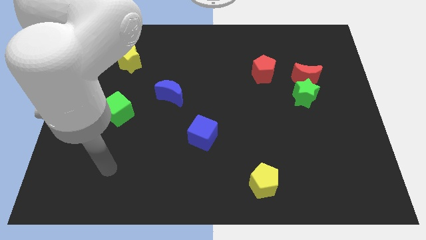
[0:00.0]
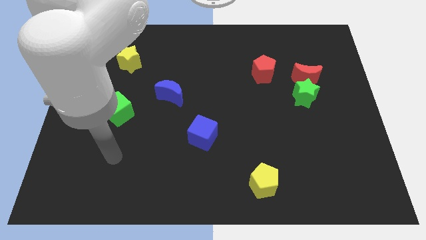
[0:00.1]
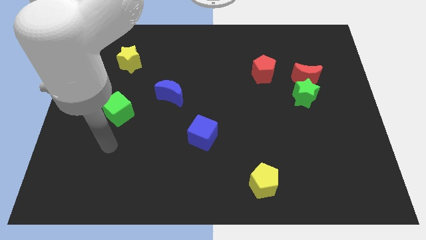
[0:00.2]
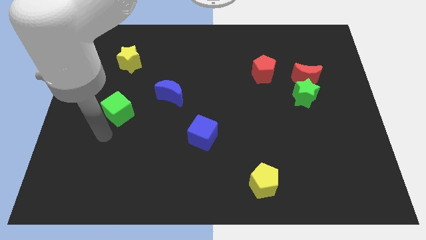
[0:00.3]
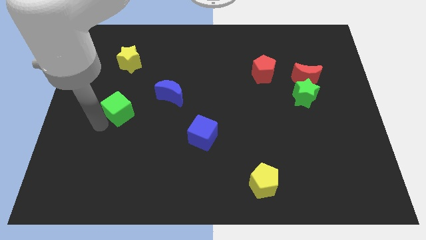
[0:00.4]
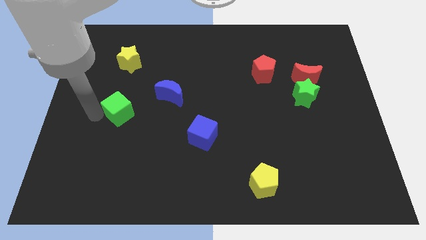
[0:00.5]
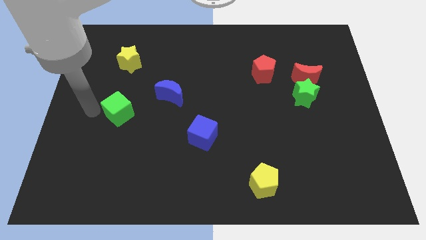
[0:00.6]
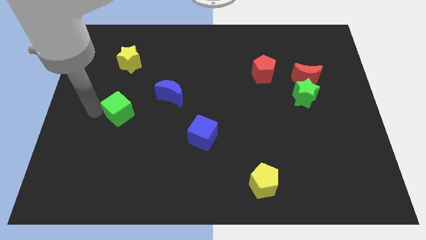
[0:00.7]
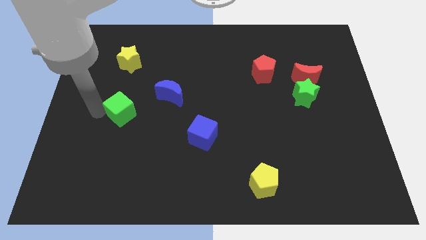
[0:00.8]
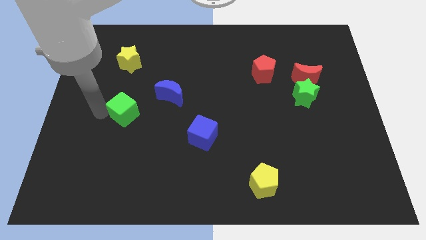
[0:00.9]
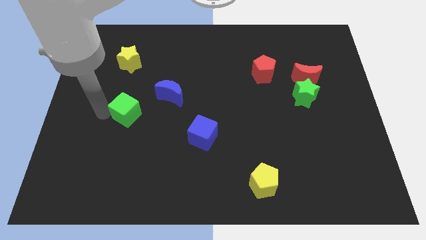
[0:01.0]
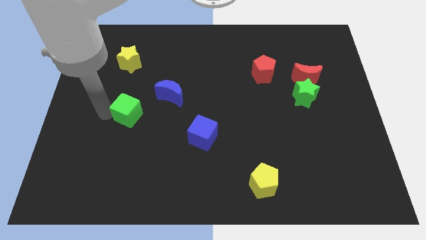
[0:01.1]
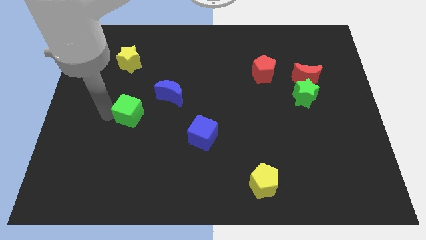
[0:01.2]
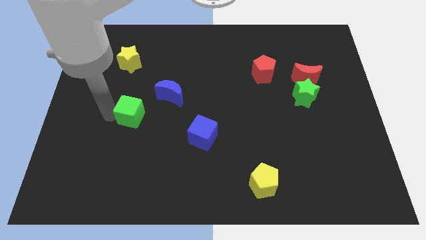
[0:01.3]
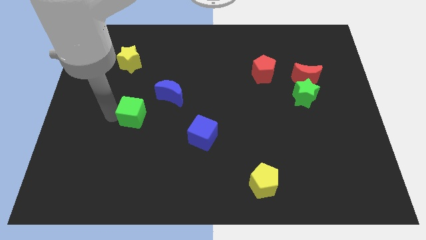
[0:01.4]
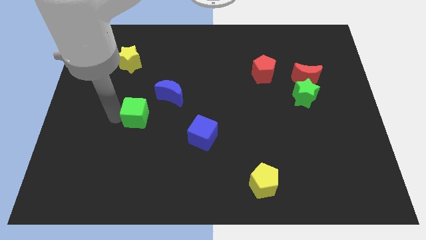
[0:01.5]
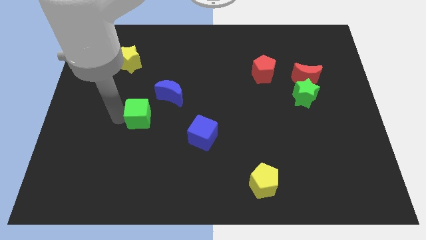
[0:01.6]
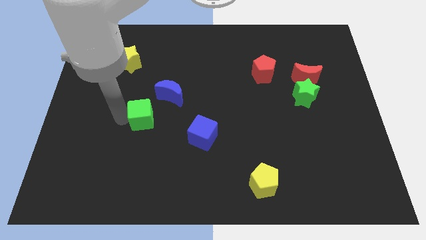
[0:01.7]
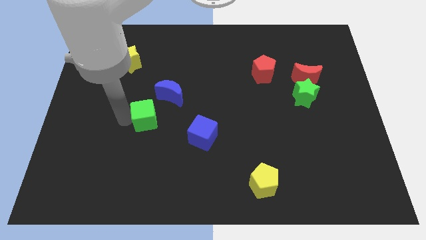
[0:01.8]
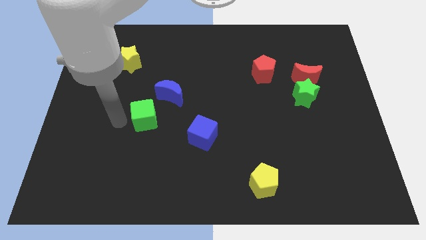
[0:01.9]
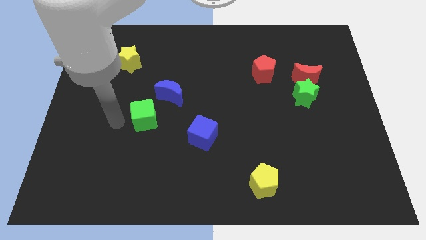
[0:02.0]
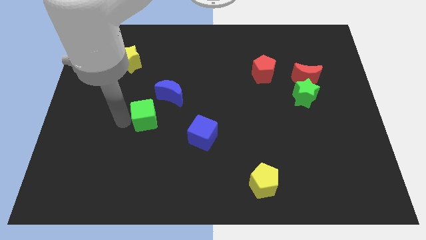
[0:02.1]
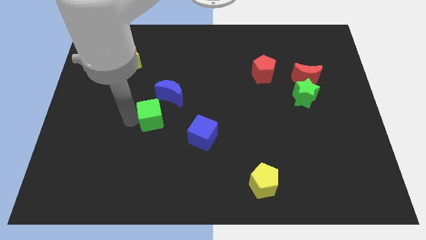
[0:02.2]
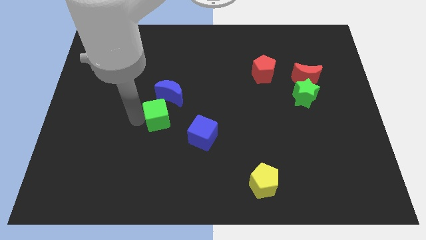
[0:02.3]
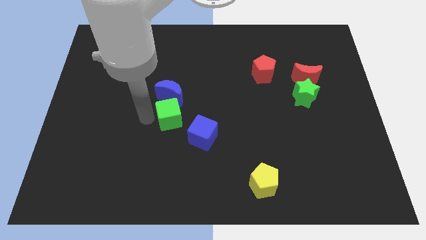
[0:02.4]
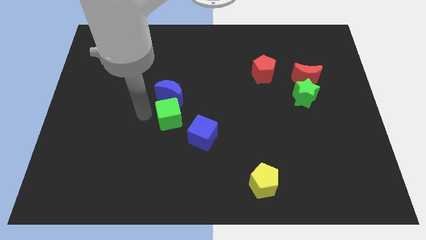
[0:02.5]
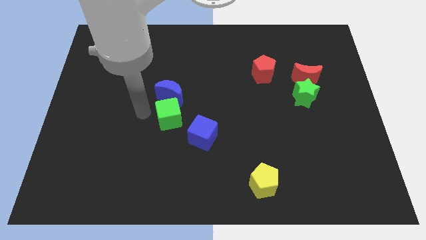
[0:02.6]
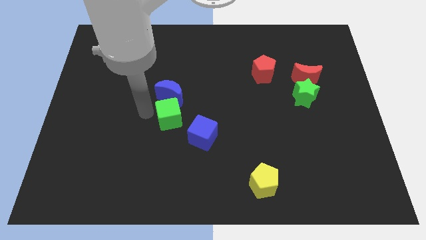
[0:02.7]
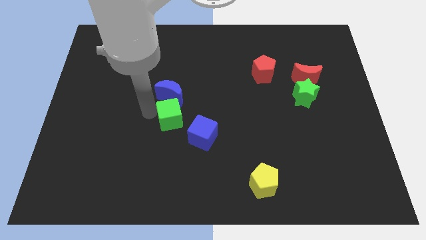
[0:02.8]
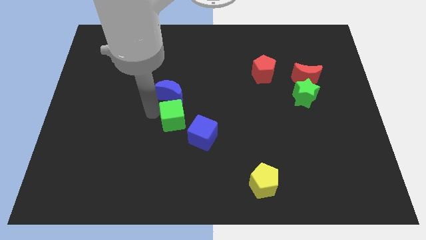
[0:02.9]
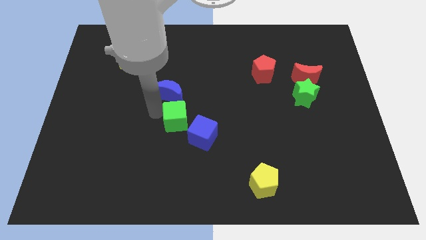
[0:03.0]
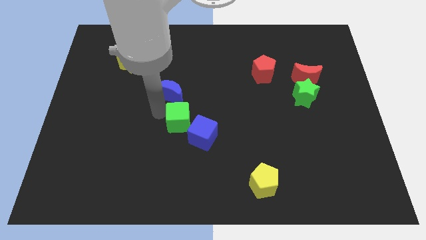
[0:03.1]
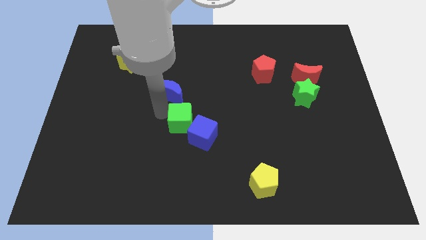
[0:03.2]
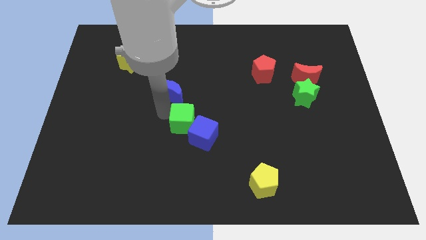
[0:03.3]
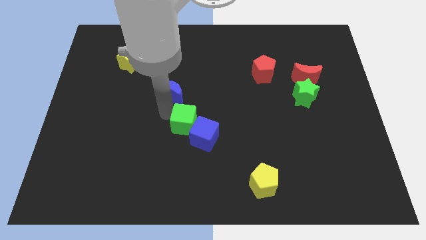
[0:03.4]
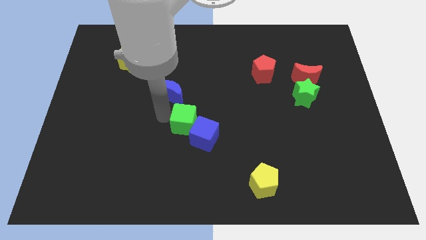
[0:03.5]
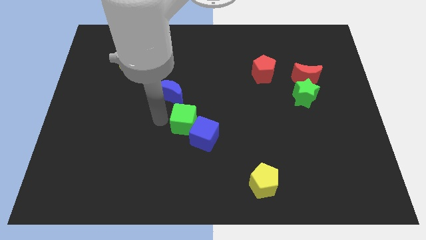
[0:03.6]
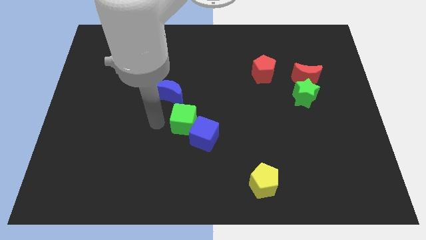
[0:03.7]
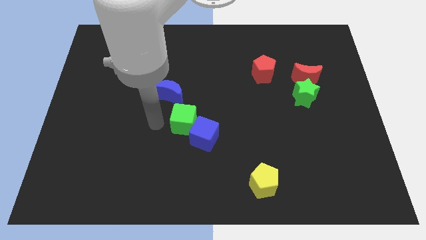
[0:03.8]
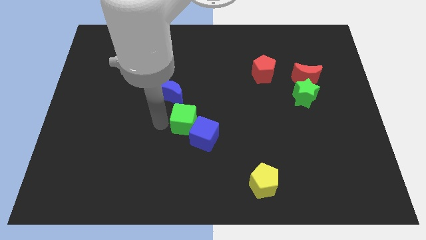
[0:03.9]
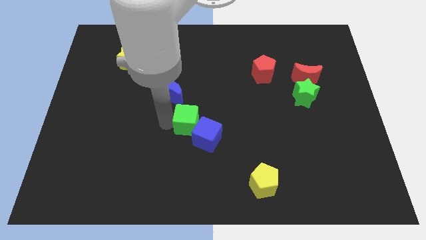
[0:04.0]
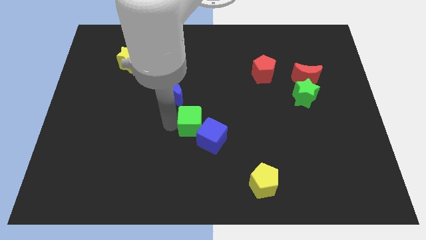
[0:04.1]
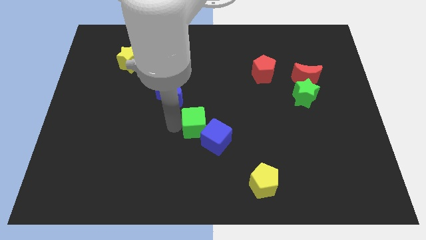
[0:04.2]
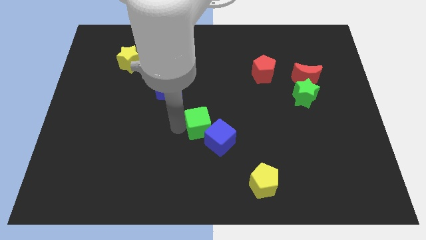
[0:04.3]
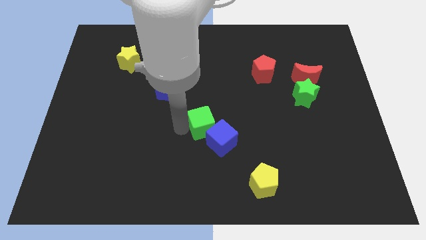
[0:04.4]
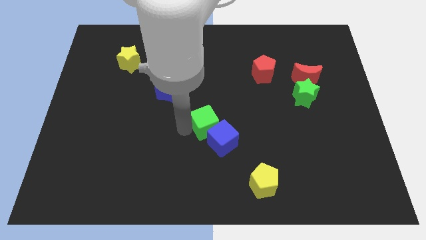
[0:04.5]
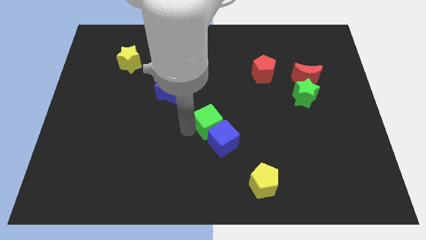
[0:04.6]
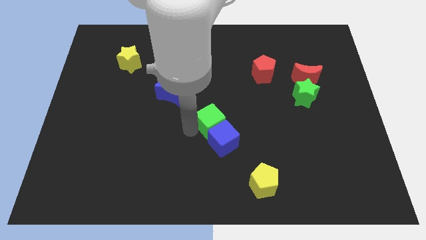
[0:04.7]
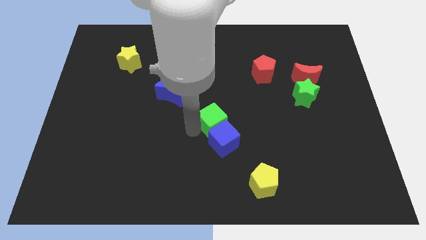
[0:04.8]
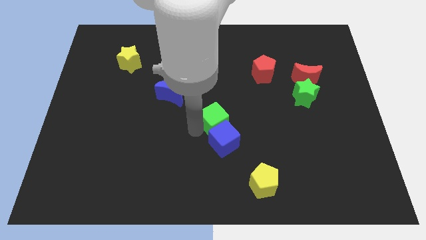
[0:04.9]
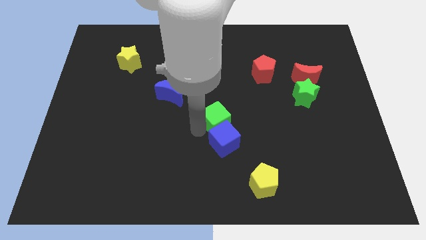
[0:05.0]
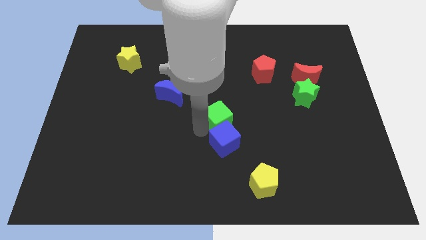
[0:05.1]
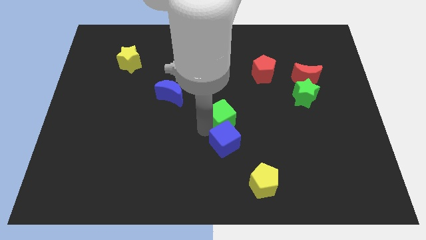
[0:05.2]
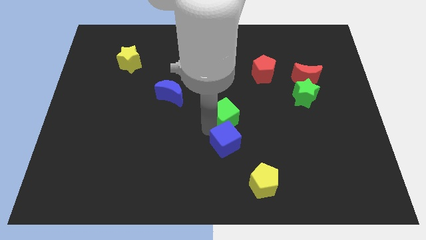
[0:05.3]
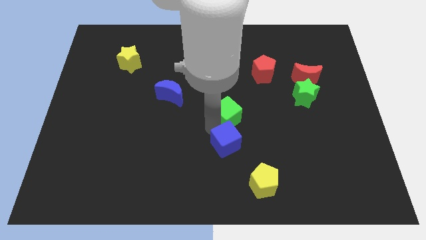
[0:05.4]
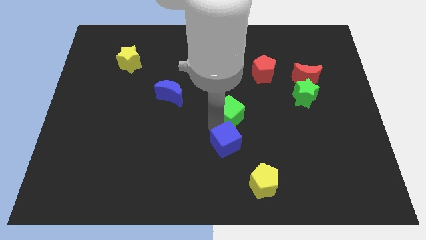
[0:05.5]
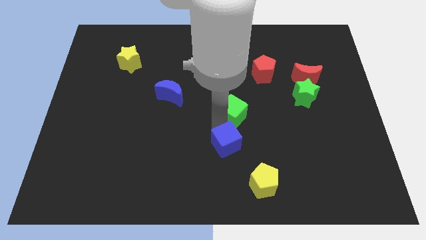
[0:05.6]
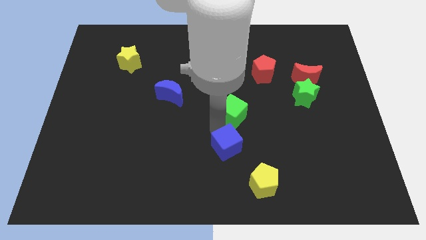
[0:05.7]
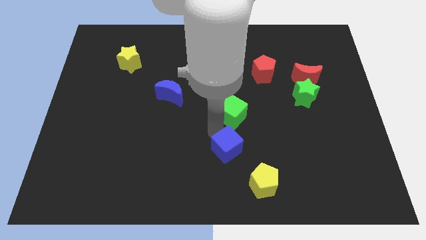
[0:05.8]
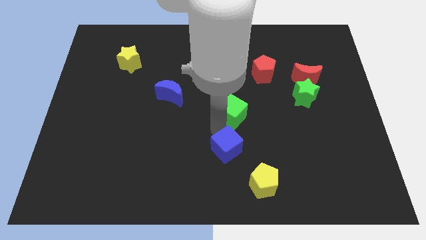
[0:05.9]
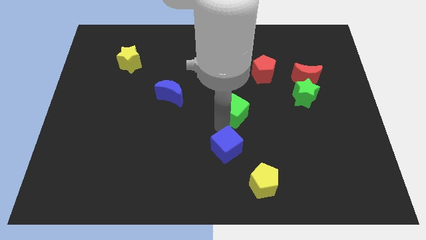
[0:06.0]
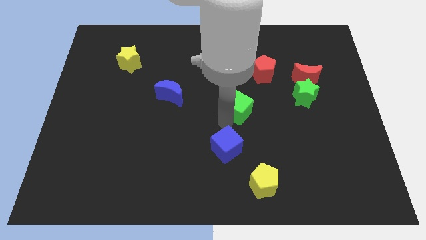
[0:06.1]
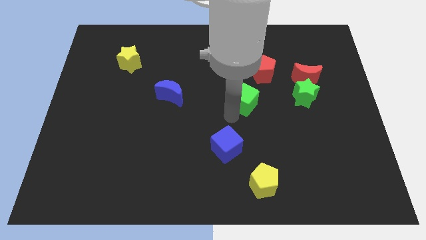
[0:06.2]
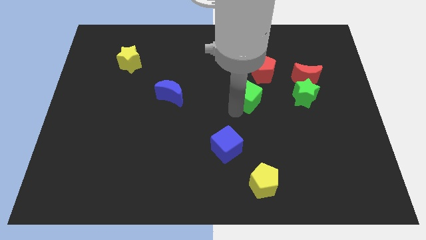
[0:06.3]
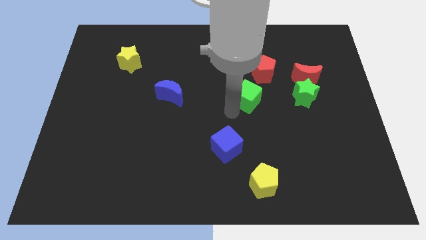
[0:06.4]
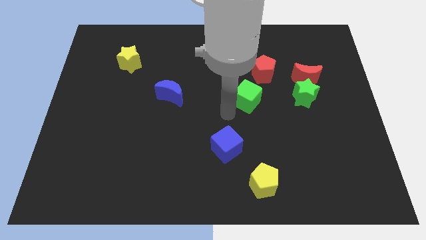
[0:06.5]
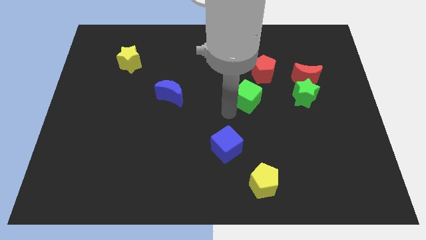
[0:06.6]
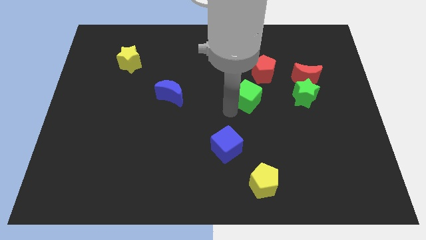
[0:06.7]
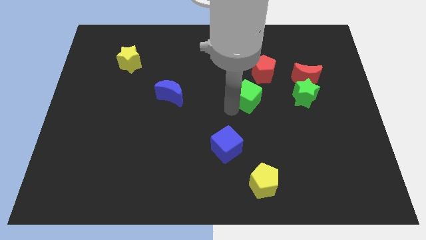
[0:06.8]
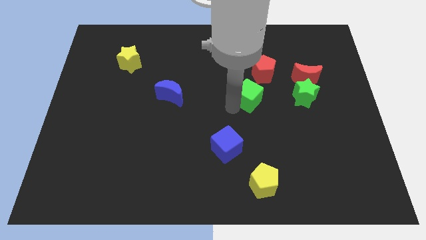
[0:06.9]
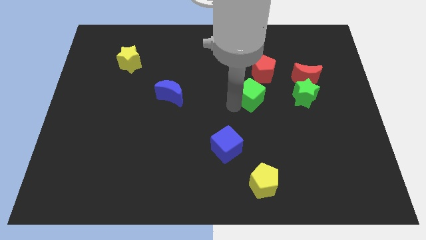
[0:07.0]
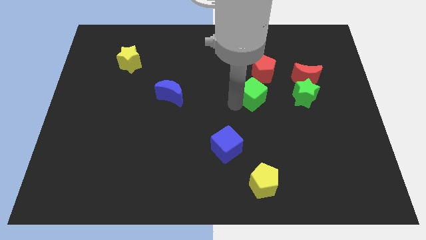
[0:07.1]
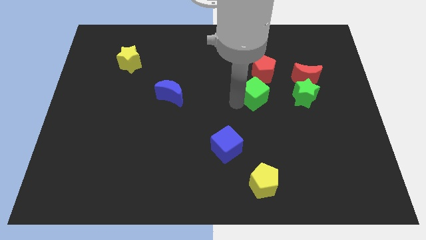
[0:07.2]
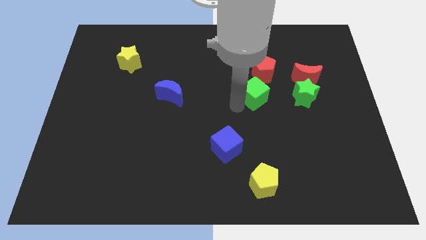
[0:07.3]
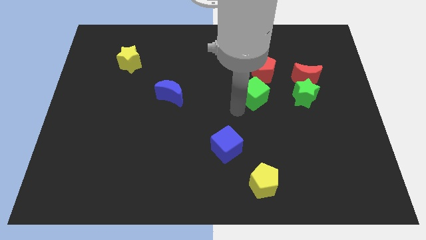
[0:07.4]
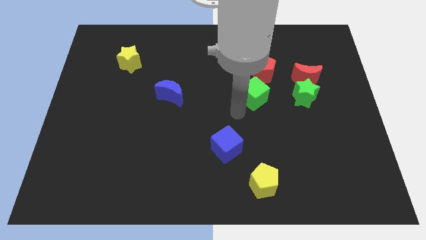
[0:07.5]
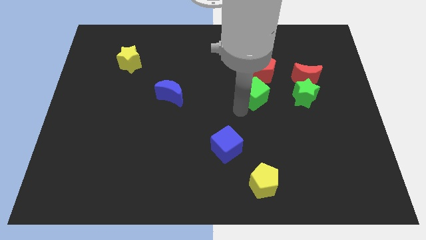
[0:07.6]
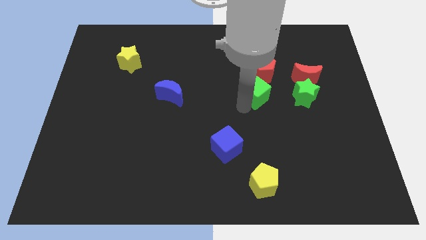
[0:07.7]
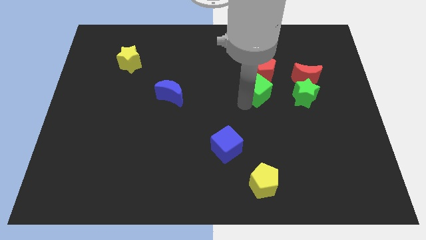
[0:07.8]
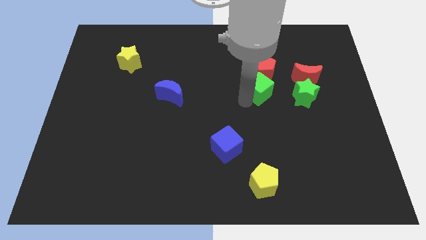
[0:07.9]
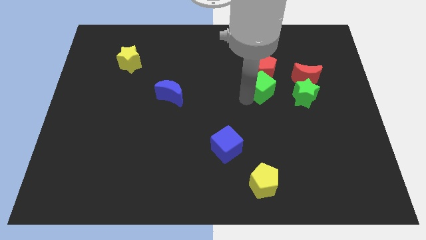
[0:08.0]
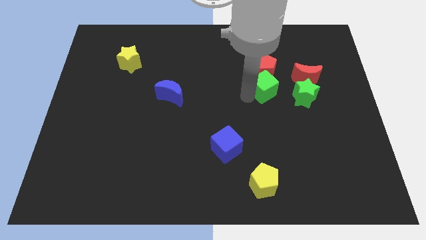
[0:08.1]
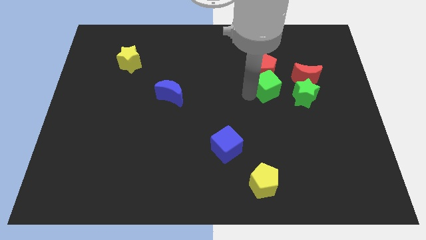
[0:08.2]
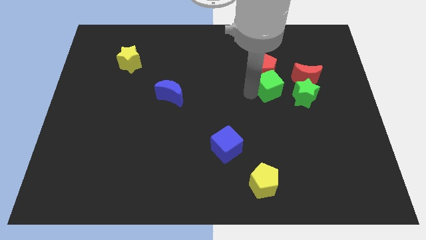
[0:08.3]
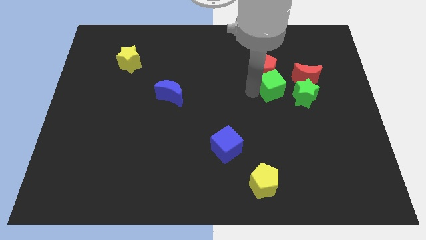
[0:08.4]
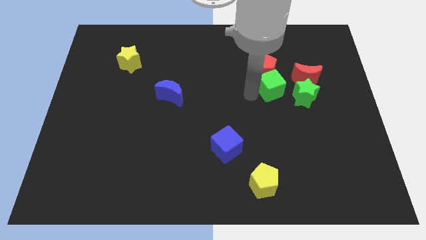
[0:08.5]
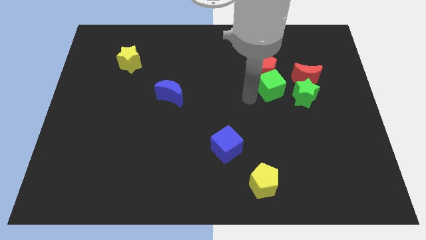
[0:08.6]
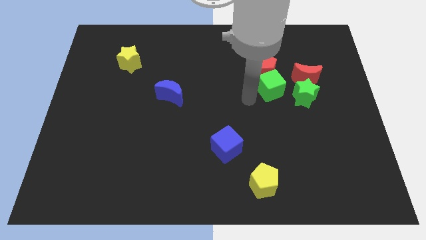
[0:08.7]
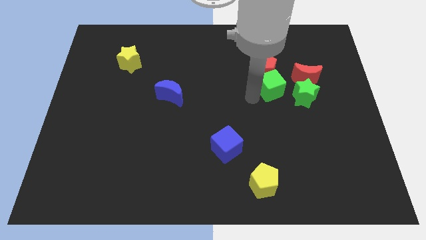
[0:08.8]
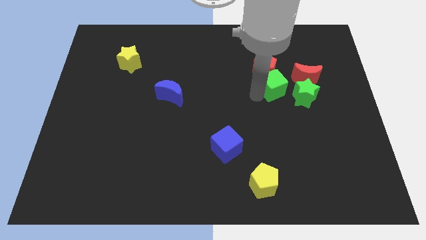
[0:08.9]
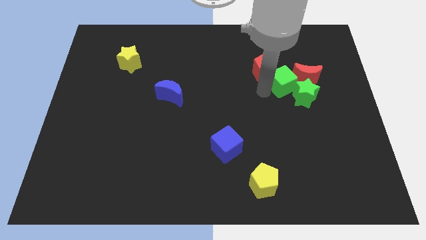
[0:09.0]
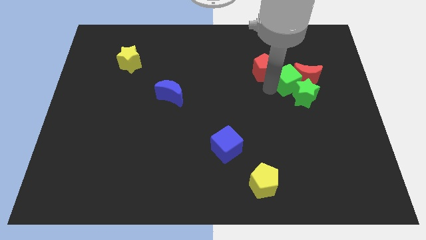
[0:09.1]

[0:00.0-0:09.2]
push the green cube next to the red moon
